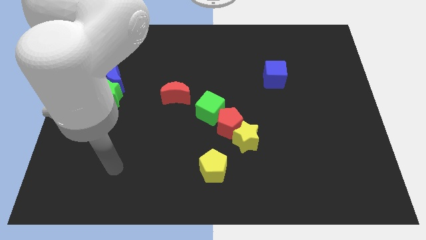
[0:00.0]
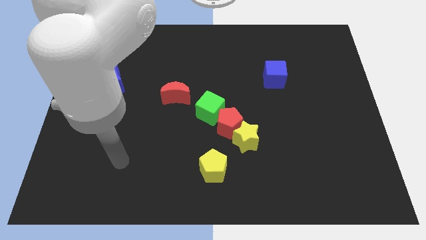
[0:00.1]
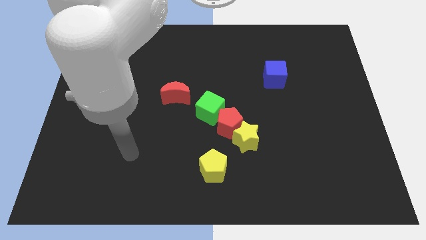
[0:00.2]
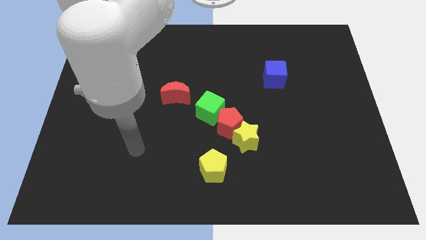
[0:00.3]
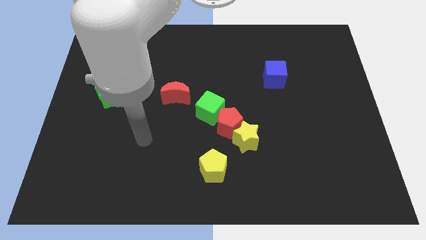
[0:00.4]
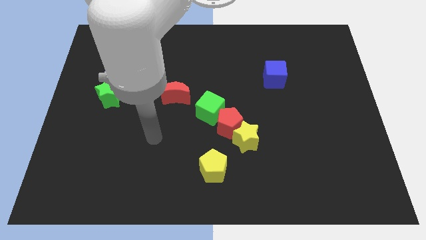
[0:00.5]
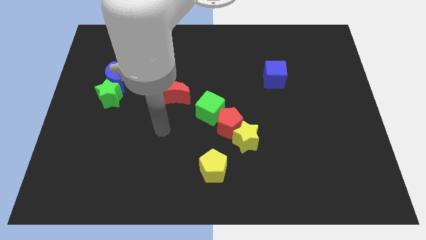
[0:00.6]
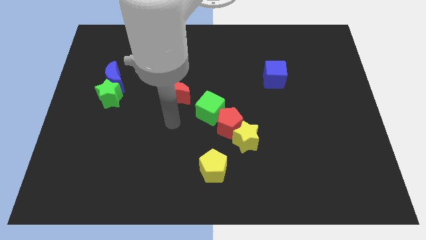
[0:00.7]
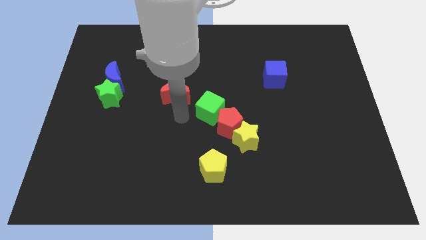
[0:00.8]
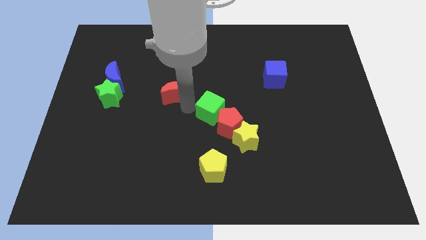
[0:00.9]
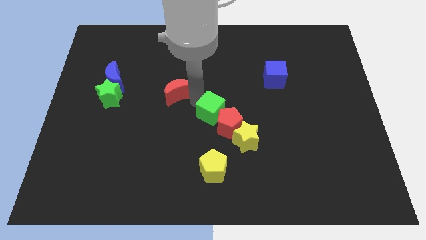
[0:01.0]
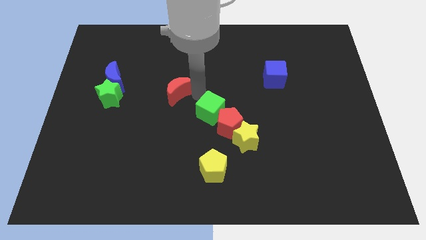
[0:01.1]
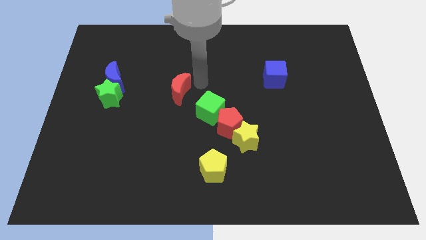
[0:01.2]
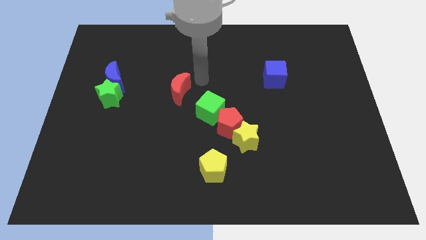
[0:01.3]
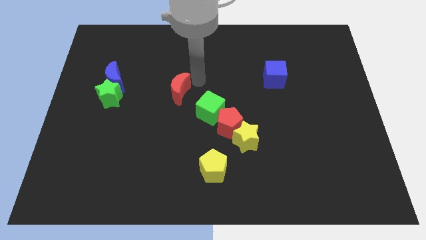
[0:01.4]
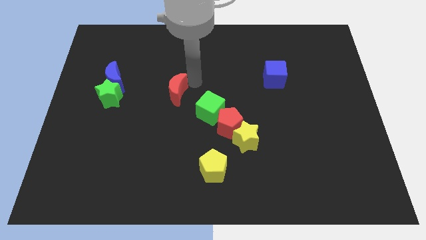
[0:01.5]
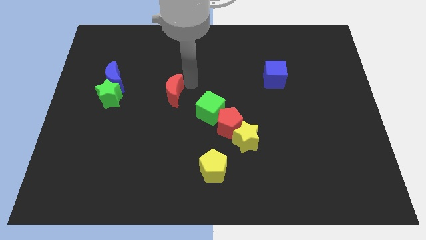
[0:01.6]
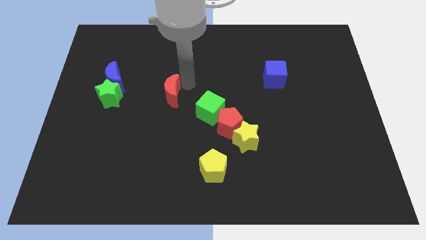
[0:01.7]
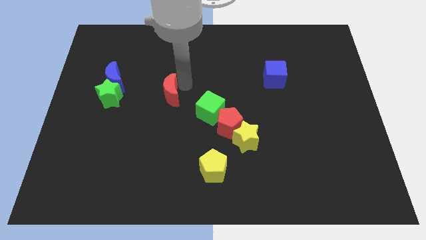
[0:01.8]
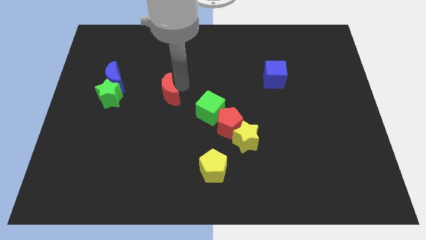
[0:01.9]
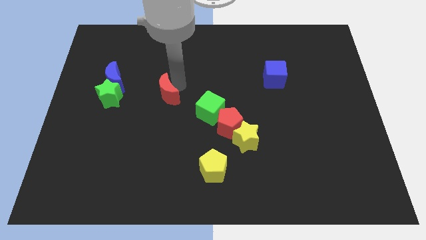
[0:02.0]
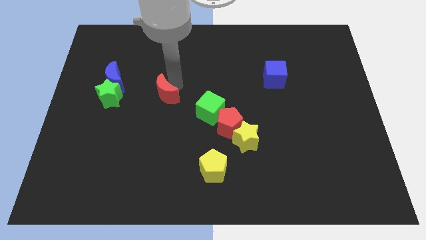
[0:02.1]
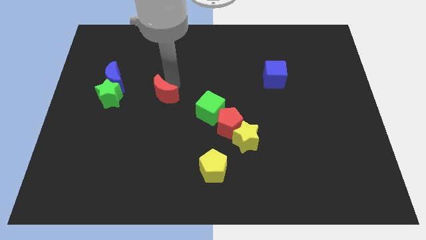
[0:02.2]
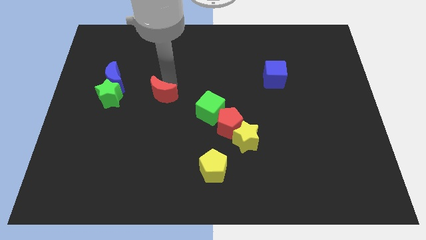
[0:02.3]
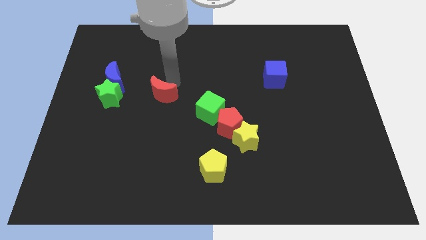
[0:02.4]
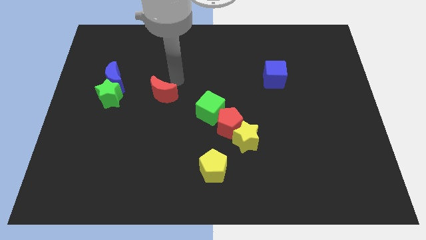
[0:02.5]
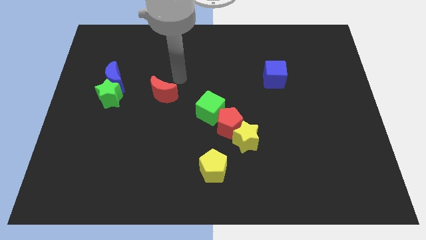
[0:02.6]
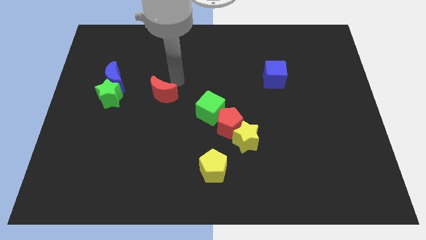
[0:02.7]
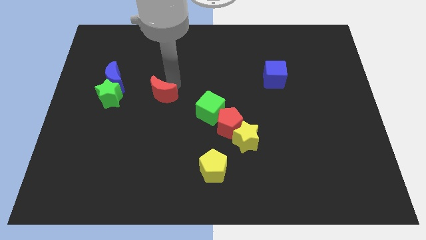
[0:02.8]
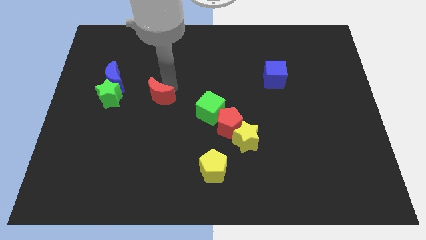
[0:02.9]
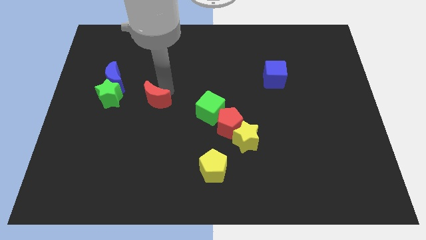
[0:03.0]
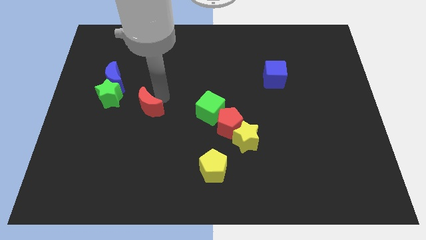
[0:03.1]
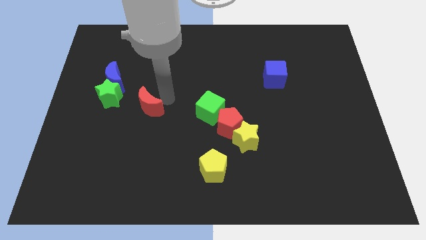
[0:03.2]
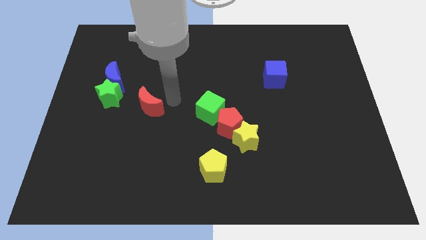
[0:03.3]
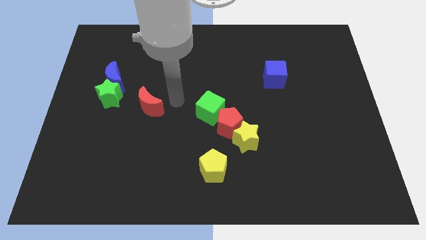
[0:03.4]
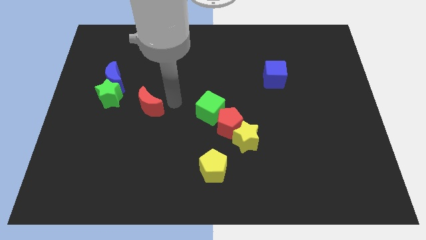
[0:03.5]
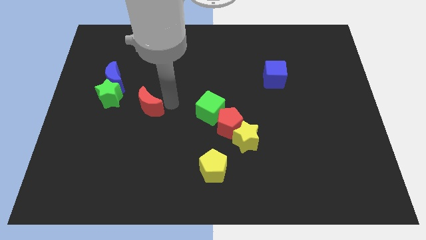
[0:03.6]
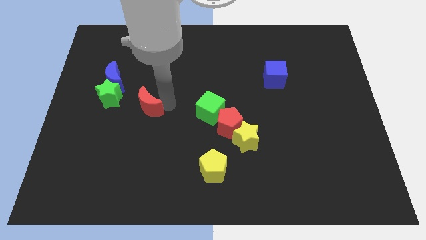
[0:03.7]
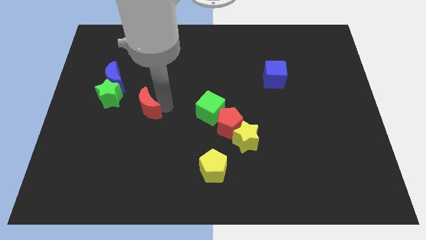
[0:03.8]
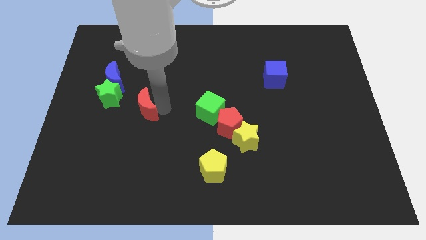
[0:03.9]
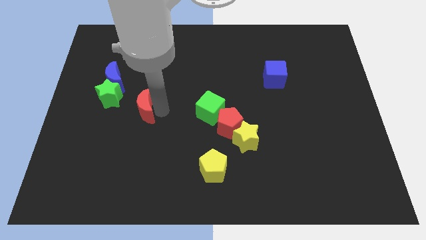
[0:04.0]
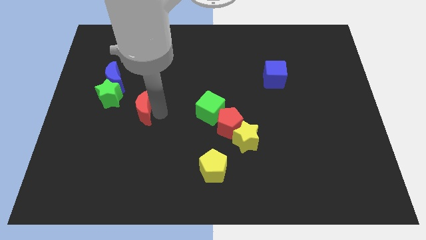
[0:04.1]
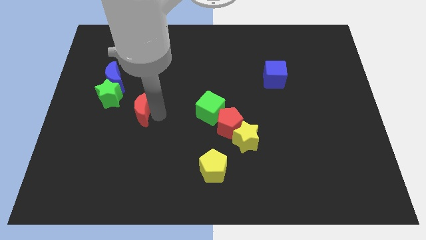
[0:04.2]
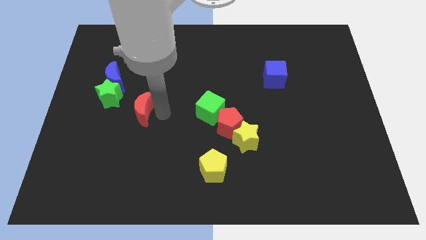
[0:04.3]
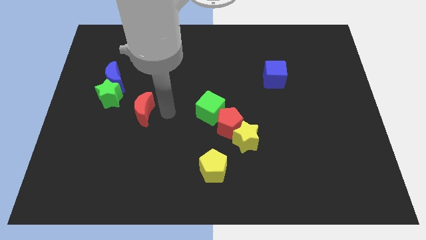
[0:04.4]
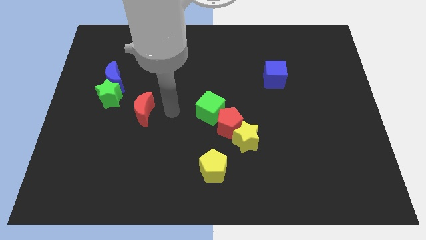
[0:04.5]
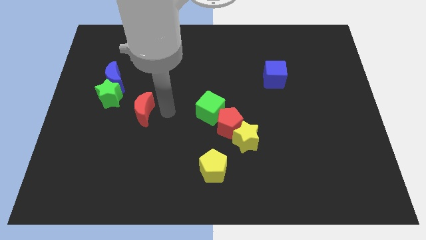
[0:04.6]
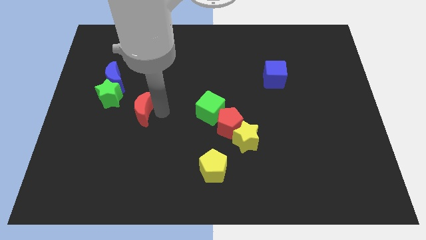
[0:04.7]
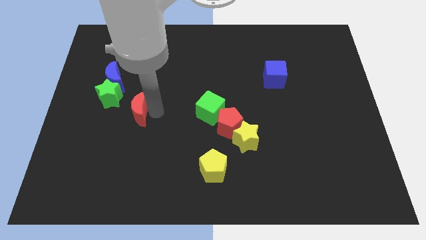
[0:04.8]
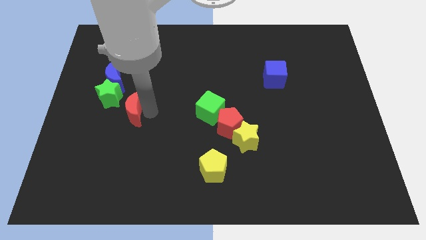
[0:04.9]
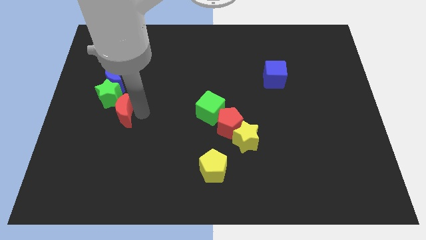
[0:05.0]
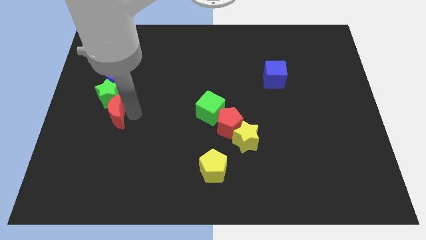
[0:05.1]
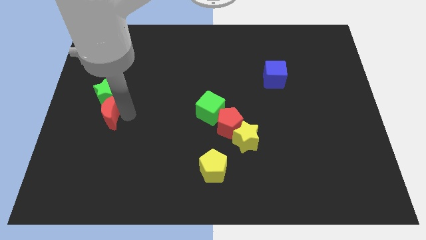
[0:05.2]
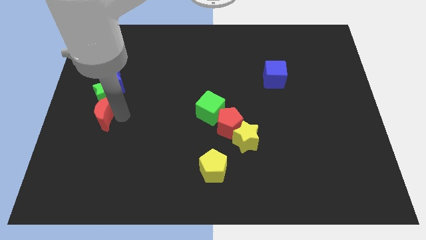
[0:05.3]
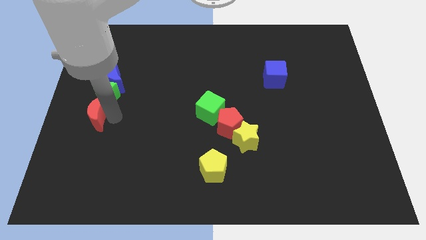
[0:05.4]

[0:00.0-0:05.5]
move the red moon to the left side
